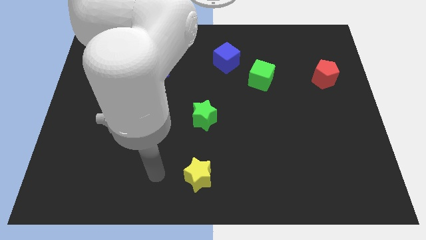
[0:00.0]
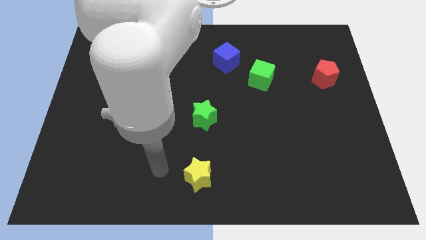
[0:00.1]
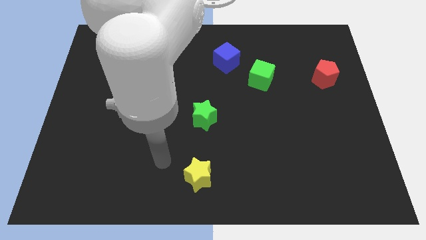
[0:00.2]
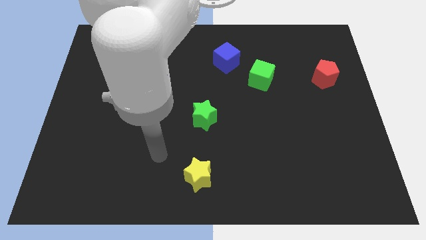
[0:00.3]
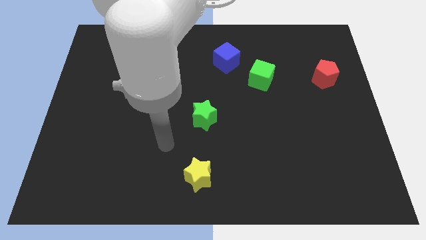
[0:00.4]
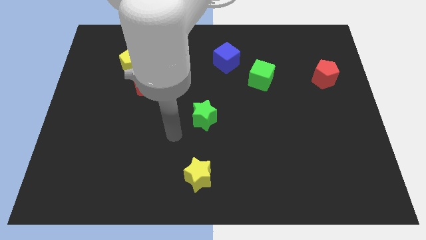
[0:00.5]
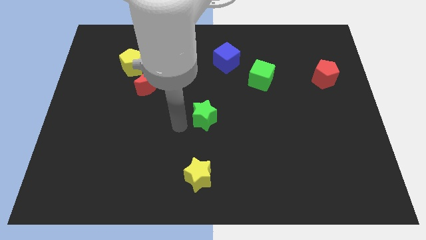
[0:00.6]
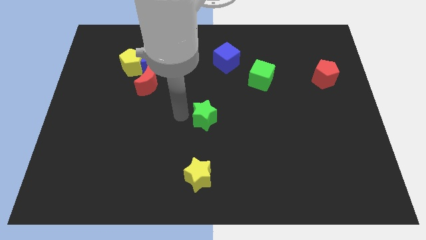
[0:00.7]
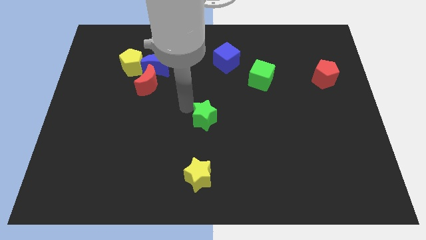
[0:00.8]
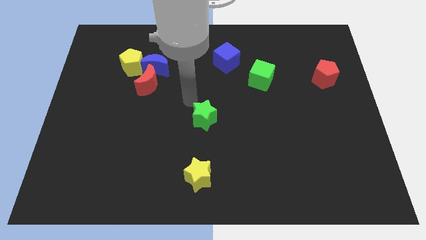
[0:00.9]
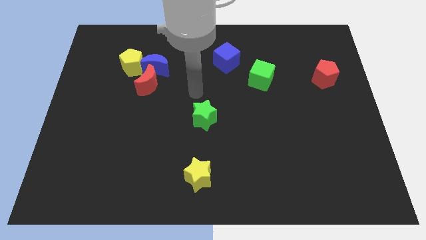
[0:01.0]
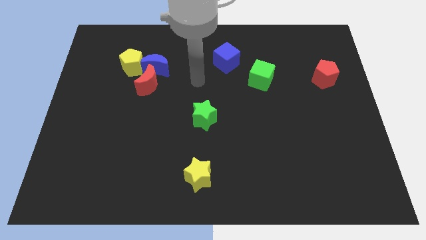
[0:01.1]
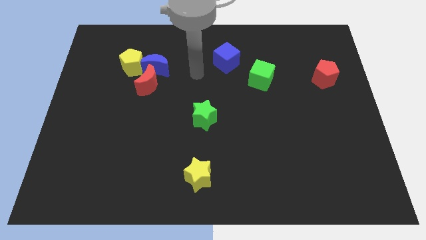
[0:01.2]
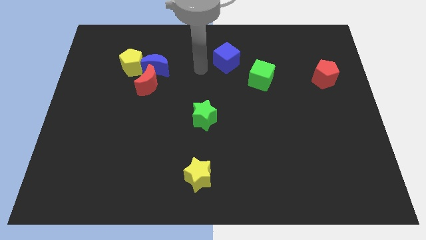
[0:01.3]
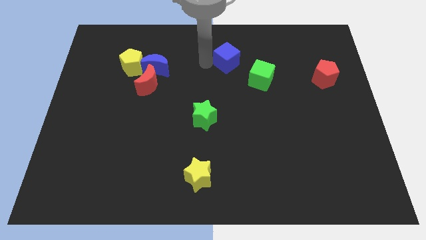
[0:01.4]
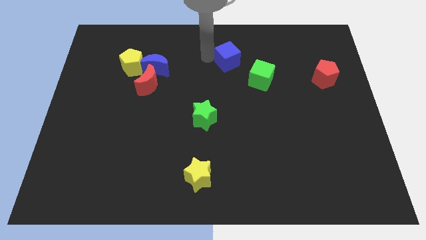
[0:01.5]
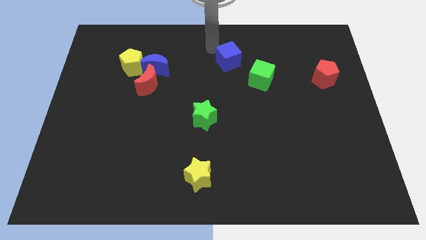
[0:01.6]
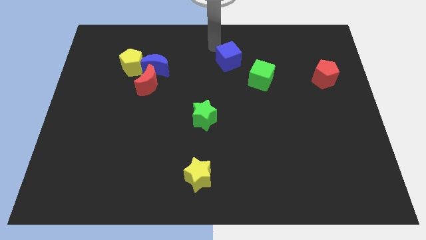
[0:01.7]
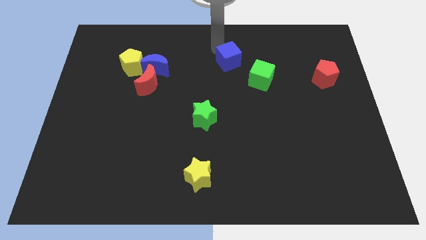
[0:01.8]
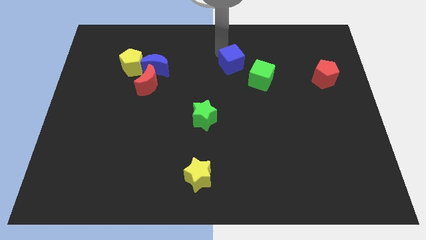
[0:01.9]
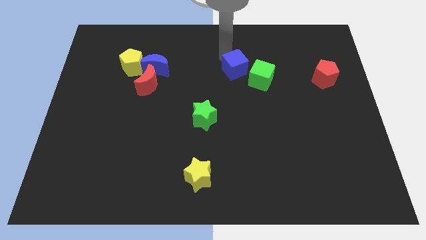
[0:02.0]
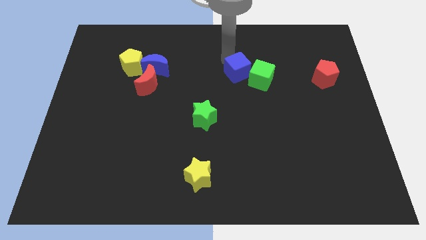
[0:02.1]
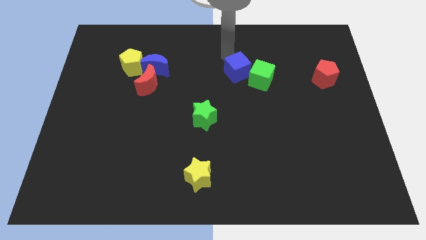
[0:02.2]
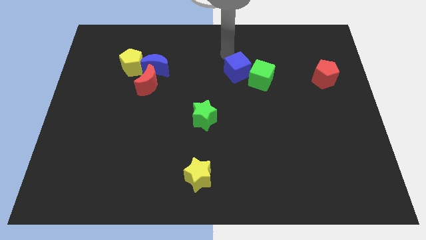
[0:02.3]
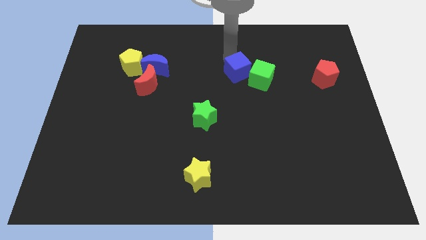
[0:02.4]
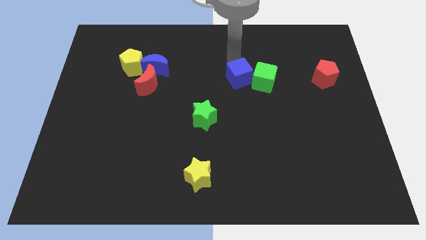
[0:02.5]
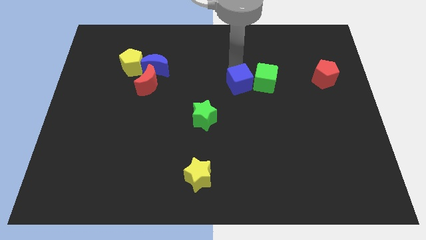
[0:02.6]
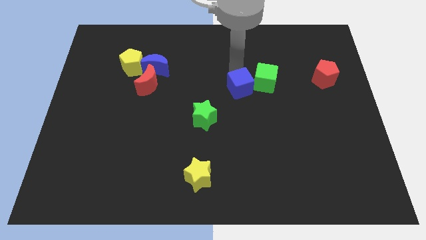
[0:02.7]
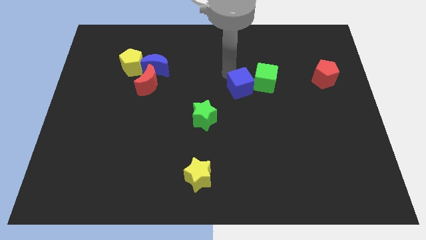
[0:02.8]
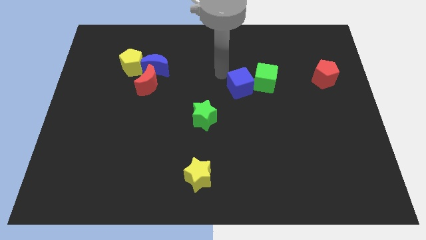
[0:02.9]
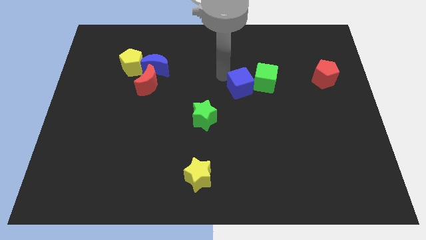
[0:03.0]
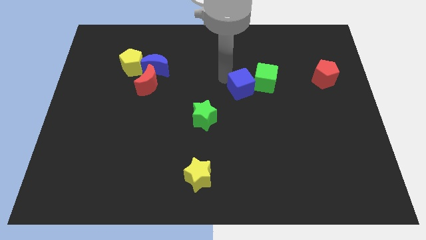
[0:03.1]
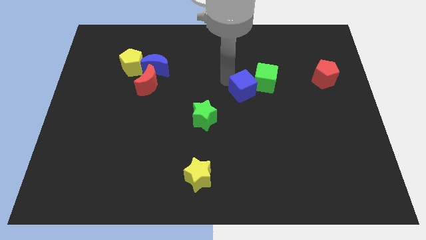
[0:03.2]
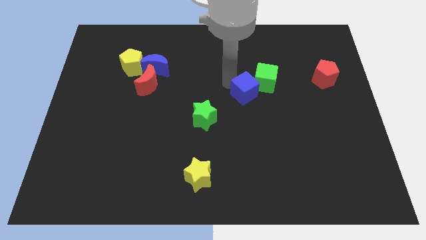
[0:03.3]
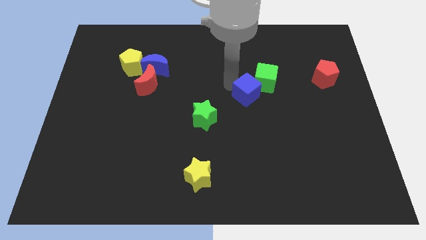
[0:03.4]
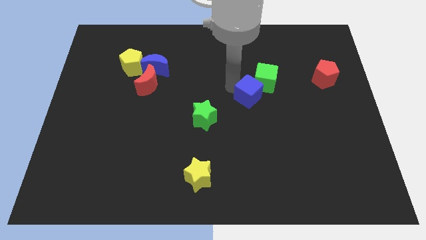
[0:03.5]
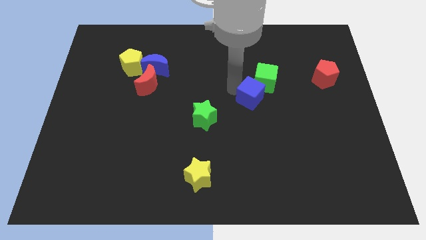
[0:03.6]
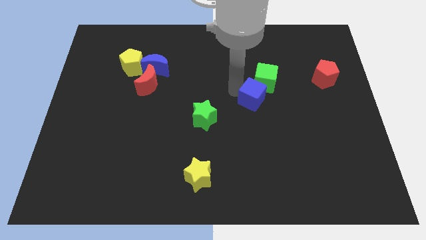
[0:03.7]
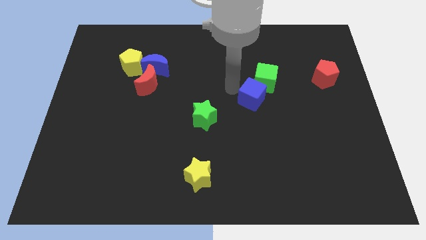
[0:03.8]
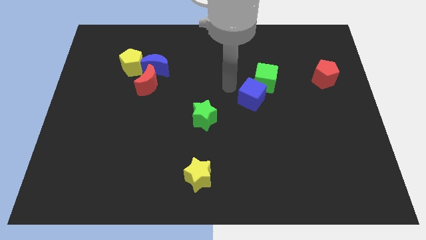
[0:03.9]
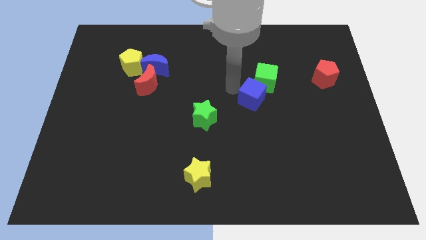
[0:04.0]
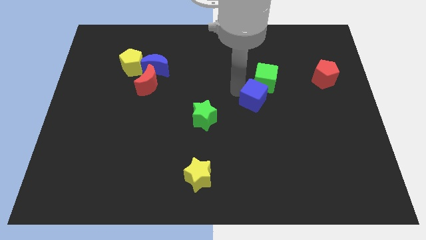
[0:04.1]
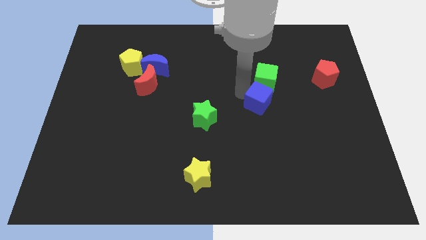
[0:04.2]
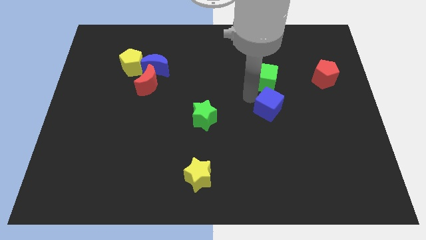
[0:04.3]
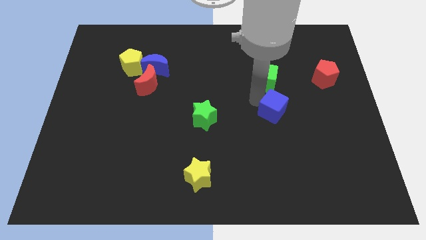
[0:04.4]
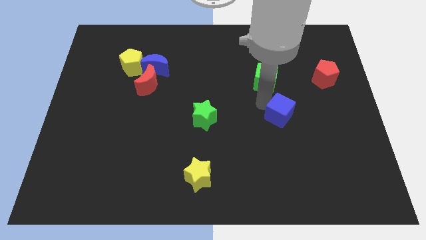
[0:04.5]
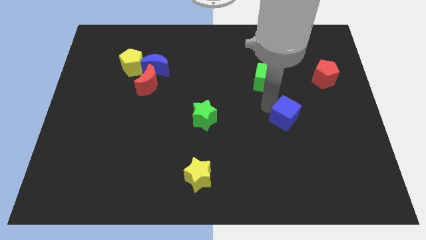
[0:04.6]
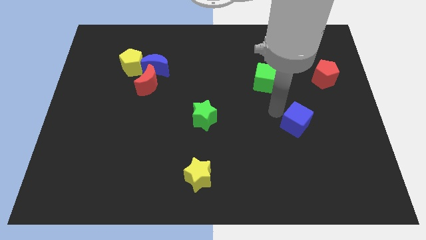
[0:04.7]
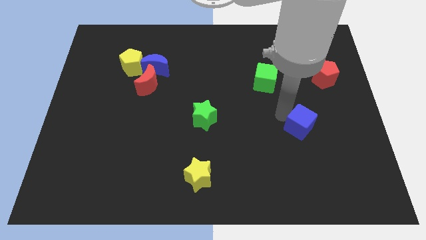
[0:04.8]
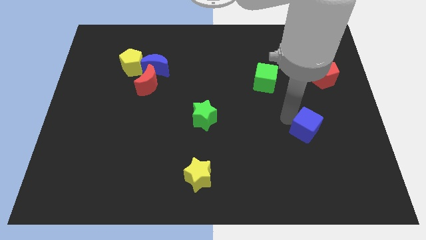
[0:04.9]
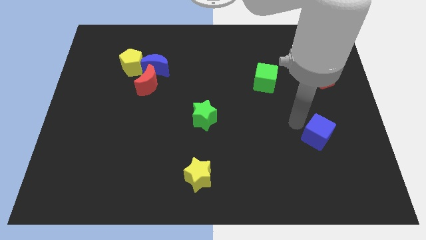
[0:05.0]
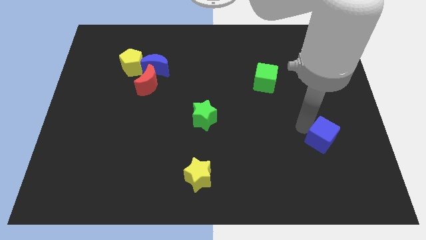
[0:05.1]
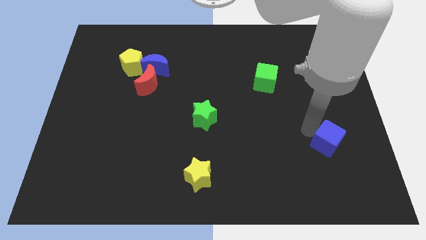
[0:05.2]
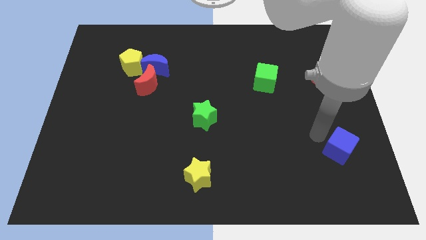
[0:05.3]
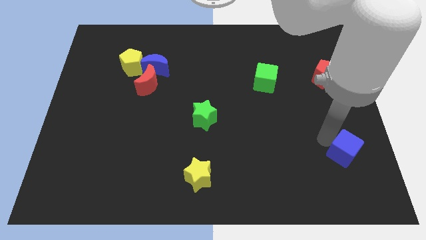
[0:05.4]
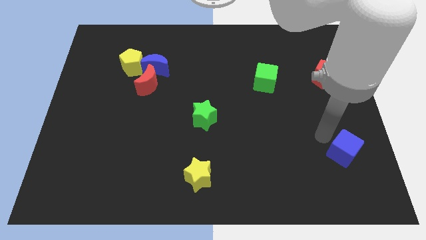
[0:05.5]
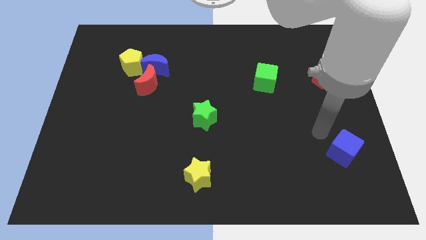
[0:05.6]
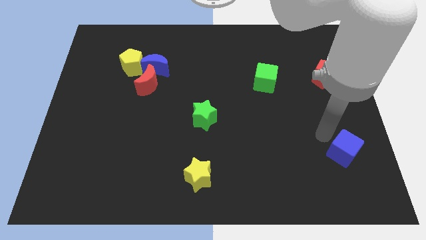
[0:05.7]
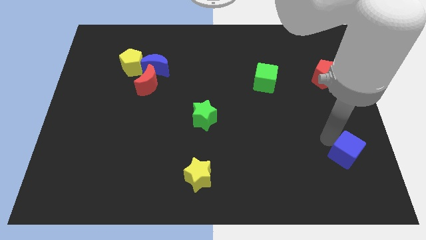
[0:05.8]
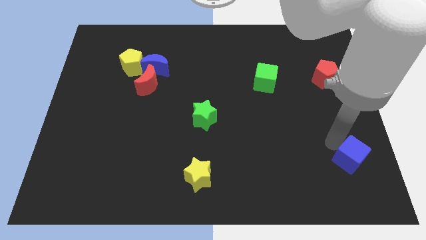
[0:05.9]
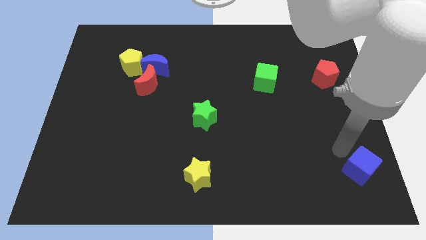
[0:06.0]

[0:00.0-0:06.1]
put the blue cube to the bottom right

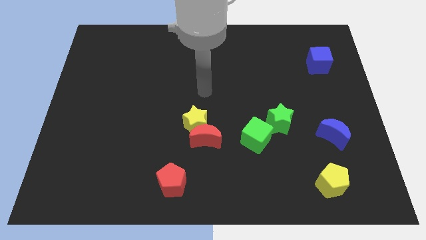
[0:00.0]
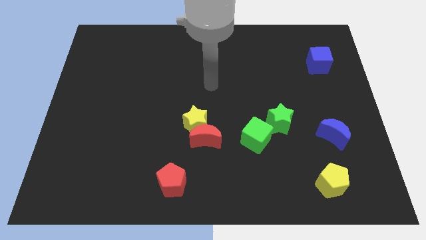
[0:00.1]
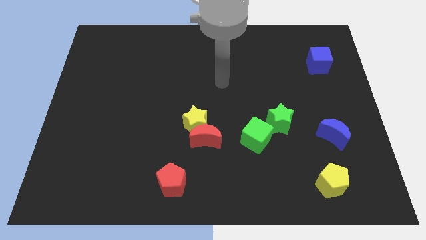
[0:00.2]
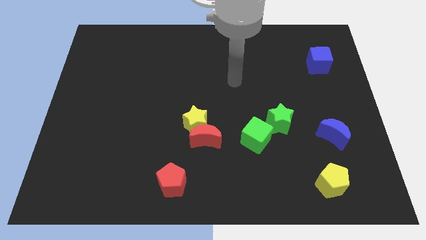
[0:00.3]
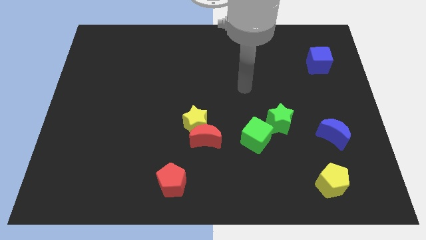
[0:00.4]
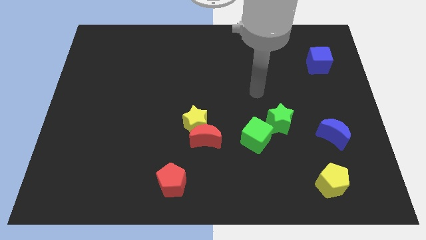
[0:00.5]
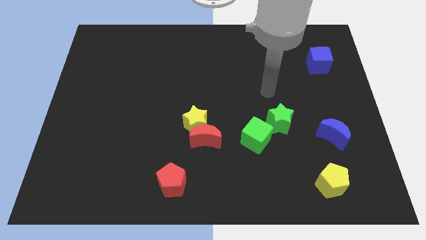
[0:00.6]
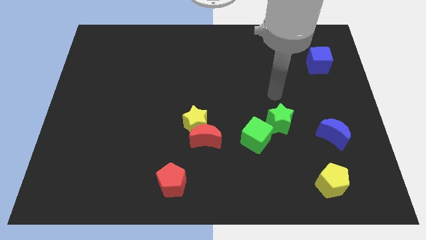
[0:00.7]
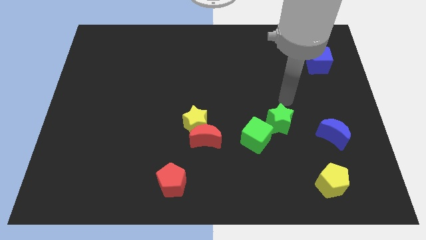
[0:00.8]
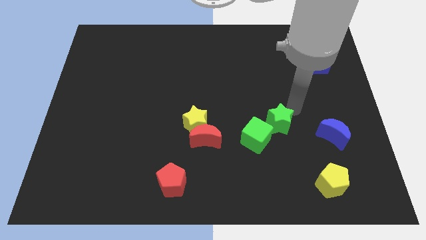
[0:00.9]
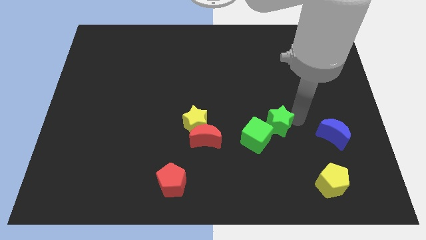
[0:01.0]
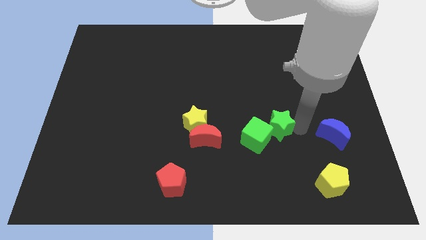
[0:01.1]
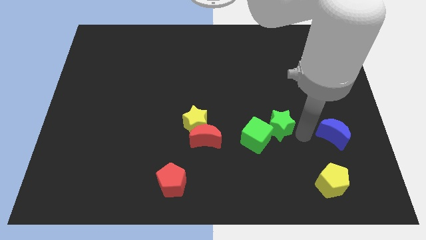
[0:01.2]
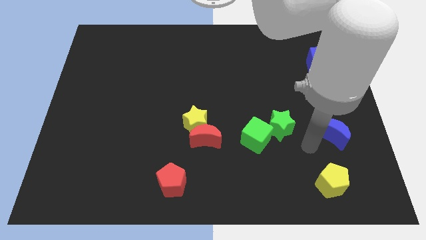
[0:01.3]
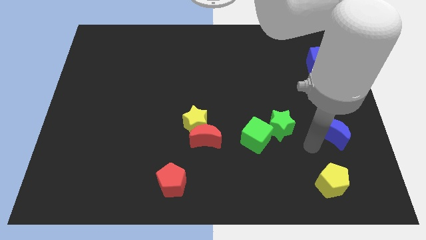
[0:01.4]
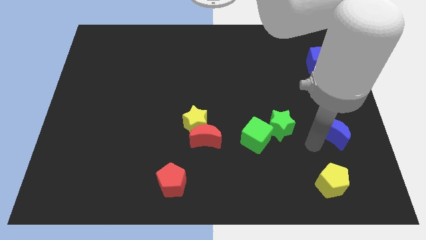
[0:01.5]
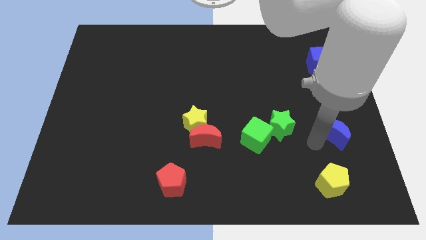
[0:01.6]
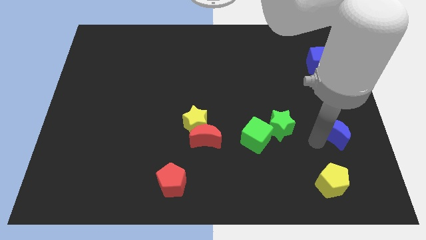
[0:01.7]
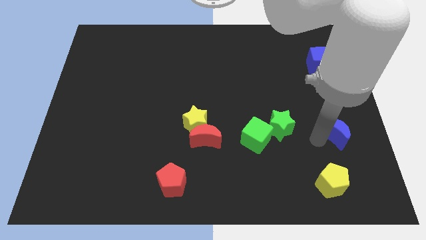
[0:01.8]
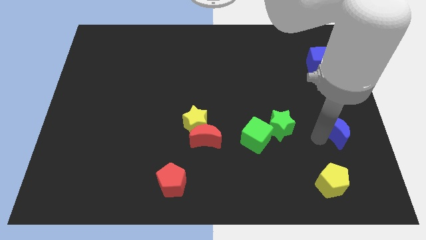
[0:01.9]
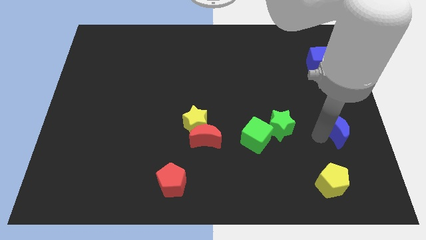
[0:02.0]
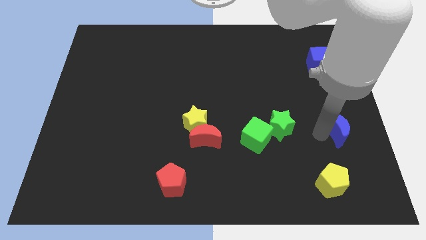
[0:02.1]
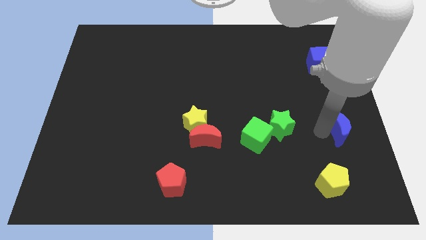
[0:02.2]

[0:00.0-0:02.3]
push the blue moon to the center right
